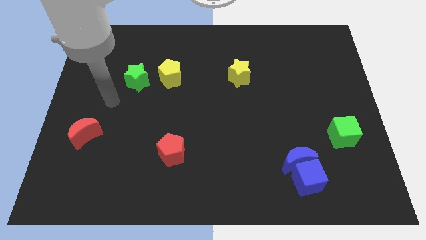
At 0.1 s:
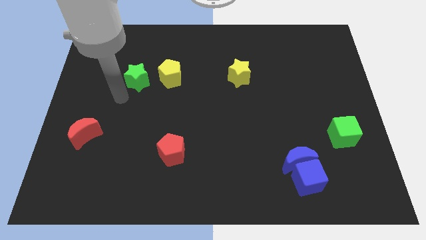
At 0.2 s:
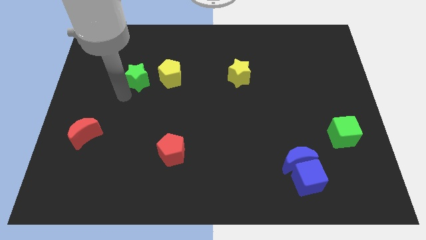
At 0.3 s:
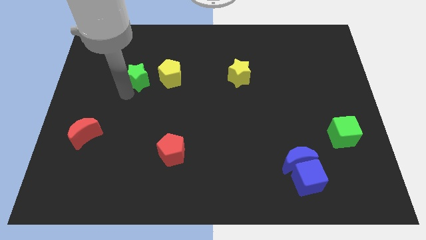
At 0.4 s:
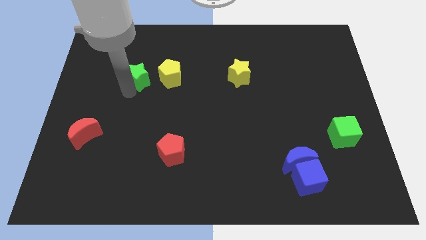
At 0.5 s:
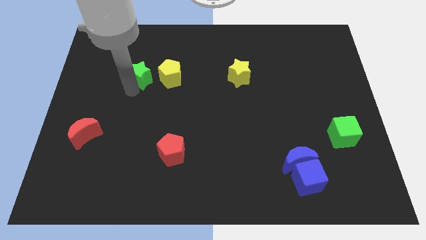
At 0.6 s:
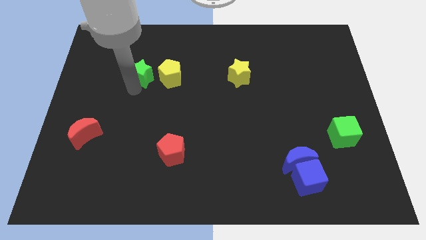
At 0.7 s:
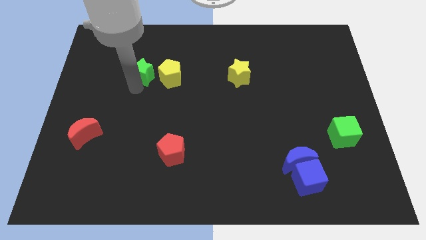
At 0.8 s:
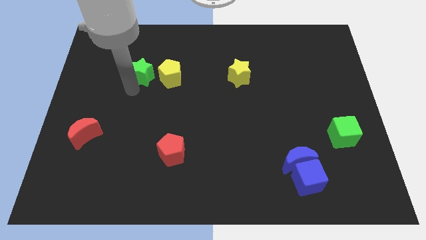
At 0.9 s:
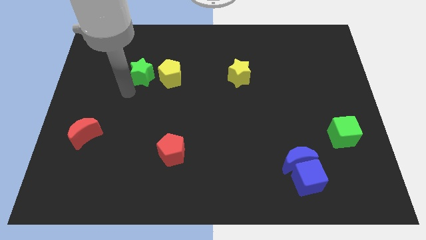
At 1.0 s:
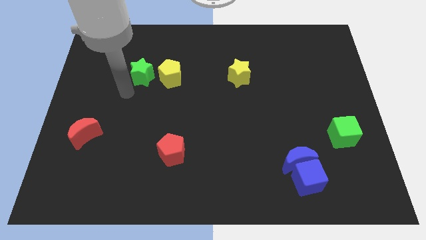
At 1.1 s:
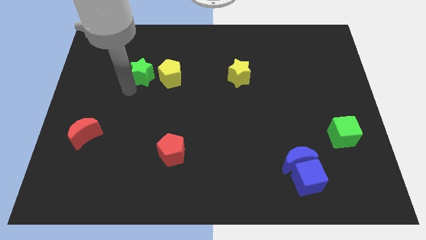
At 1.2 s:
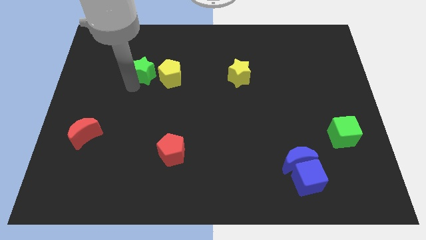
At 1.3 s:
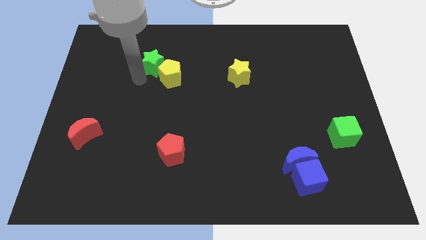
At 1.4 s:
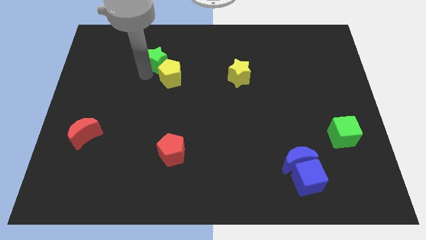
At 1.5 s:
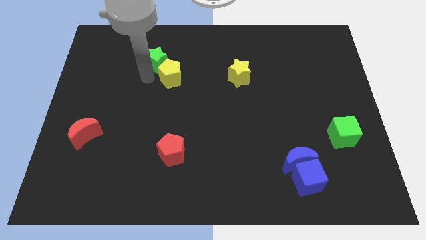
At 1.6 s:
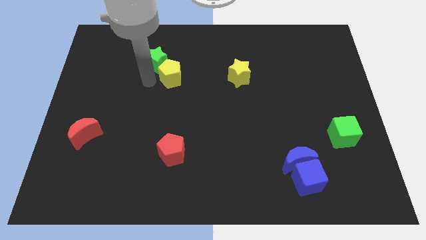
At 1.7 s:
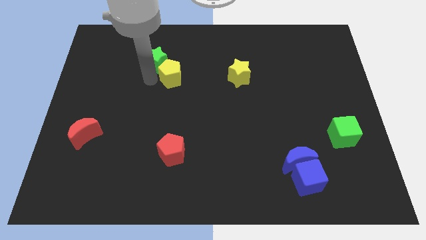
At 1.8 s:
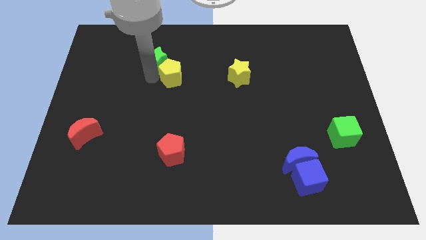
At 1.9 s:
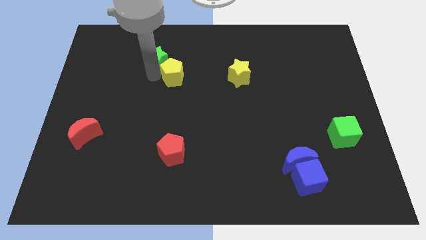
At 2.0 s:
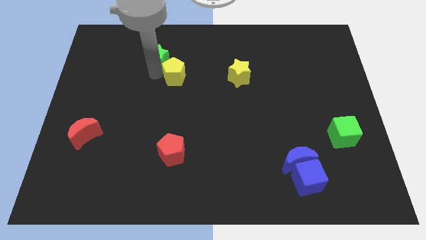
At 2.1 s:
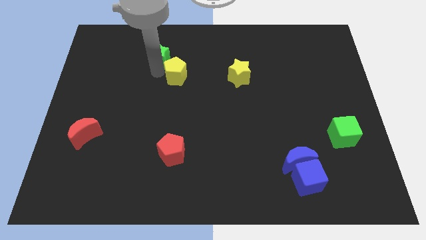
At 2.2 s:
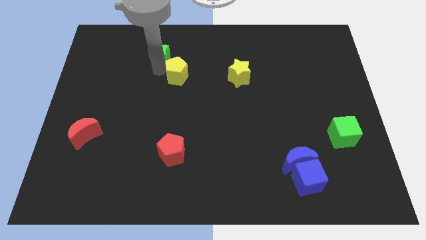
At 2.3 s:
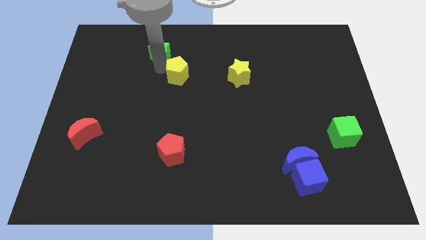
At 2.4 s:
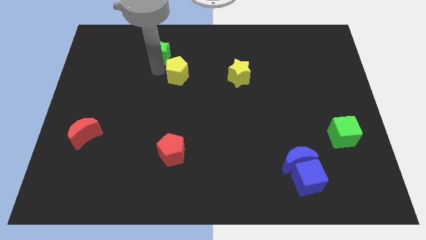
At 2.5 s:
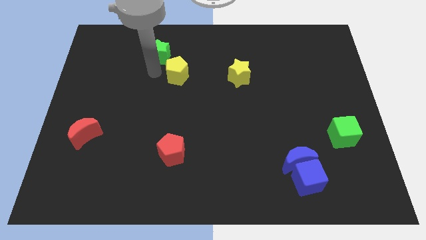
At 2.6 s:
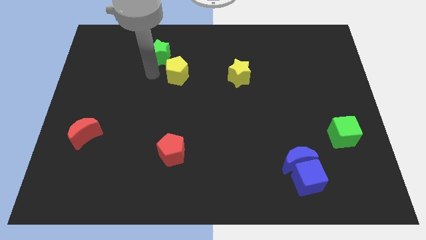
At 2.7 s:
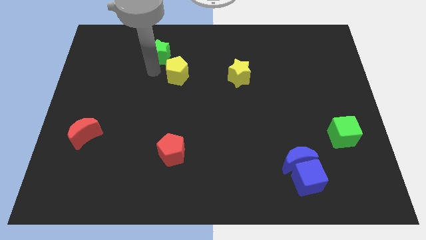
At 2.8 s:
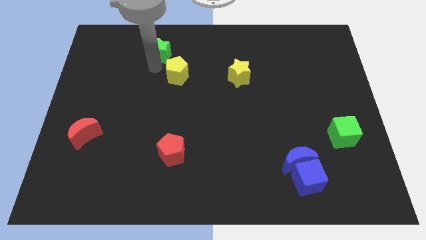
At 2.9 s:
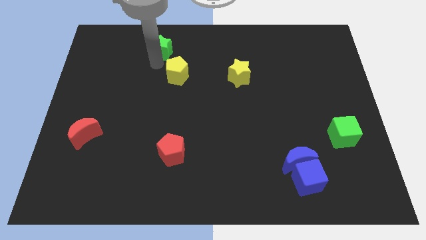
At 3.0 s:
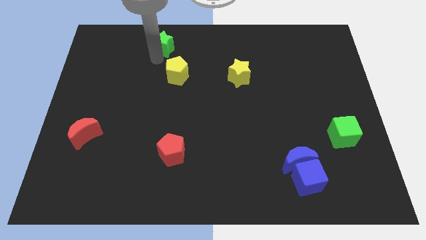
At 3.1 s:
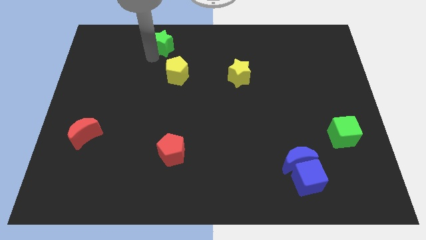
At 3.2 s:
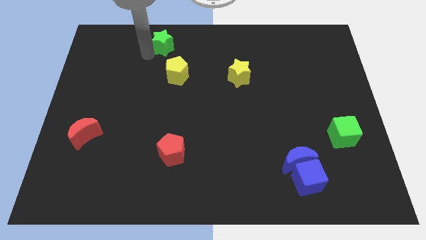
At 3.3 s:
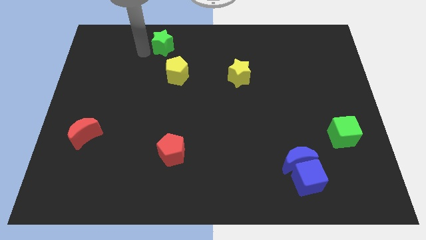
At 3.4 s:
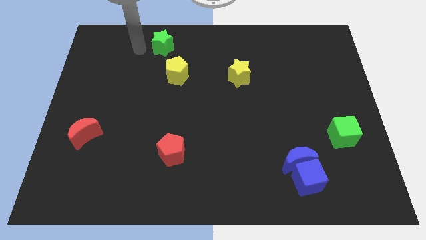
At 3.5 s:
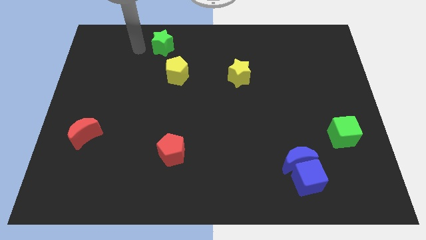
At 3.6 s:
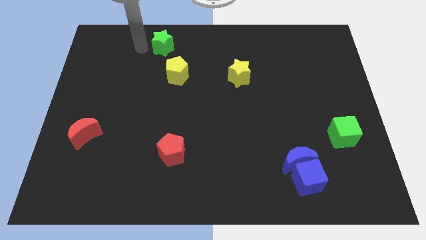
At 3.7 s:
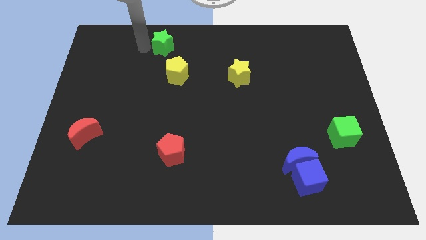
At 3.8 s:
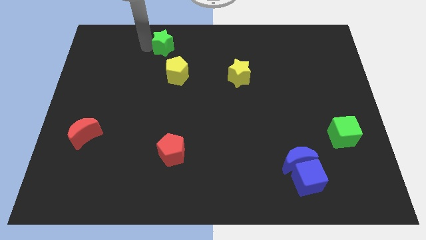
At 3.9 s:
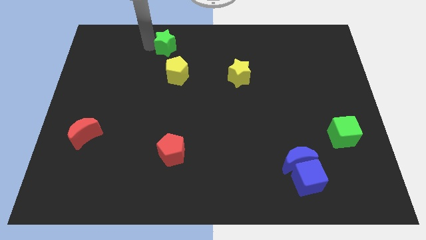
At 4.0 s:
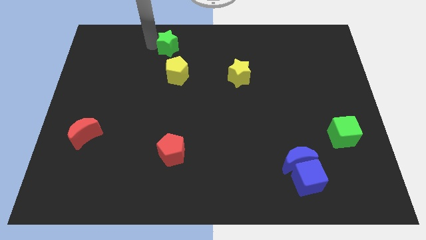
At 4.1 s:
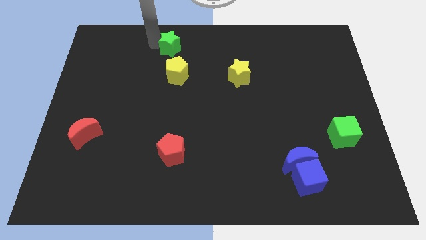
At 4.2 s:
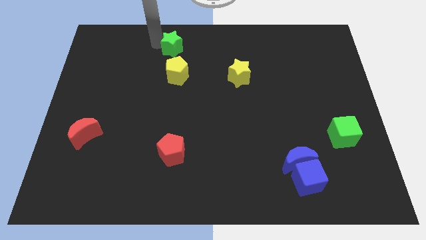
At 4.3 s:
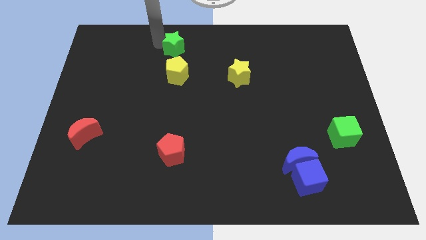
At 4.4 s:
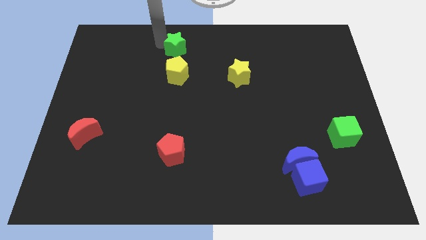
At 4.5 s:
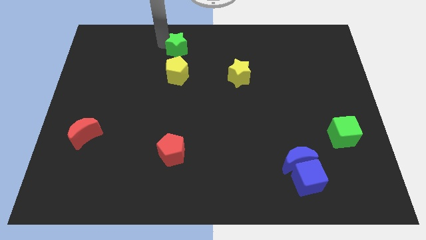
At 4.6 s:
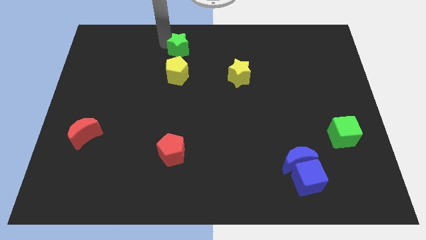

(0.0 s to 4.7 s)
push the green star to the top

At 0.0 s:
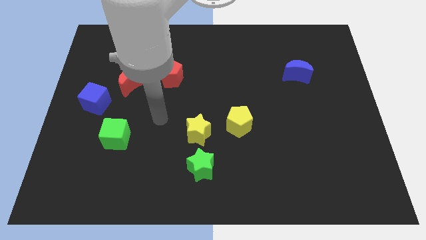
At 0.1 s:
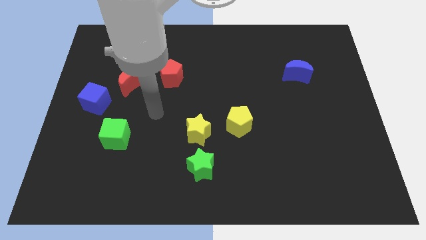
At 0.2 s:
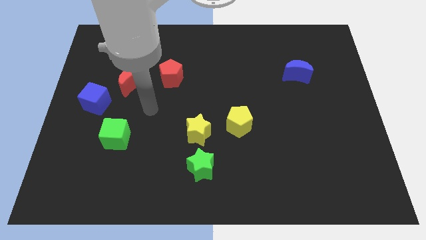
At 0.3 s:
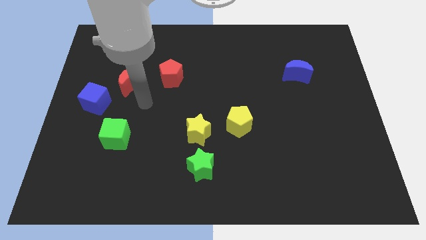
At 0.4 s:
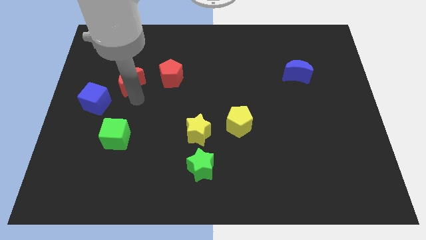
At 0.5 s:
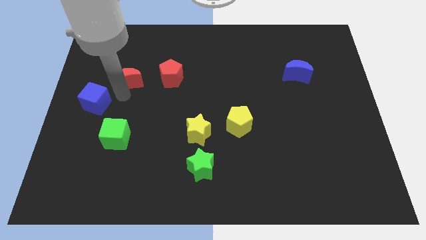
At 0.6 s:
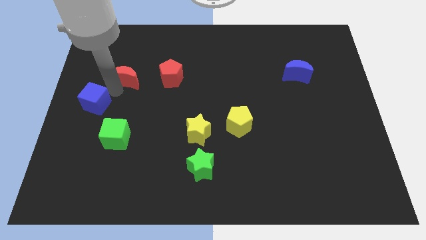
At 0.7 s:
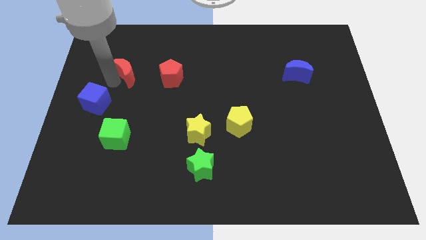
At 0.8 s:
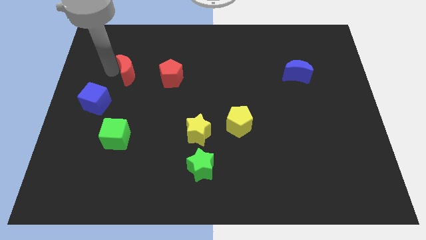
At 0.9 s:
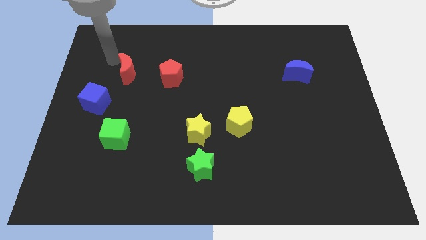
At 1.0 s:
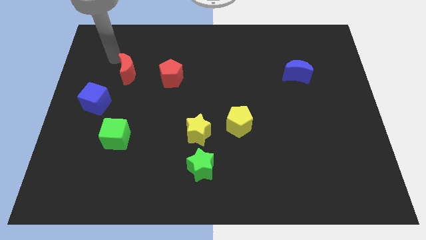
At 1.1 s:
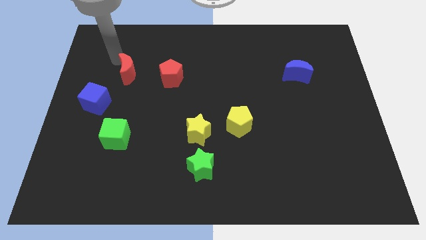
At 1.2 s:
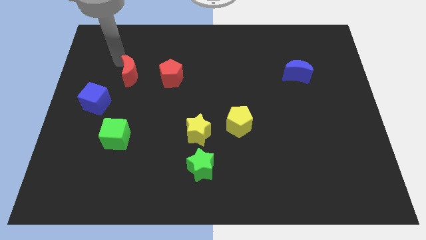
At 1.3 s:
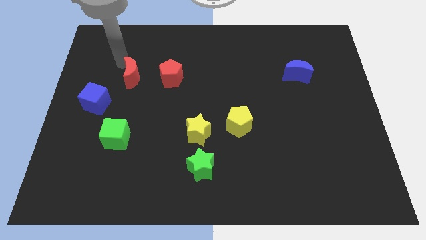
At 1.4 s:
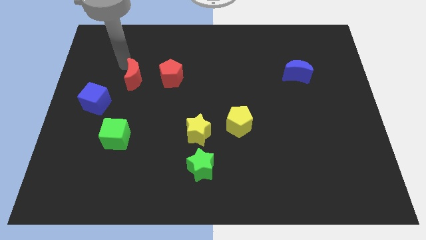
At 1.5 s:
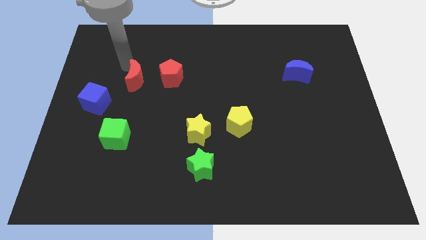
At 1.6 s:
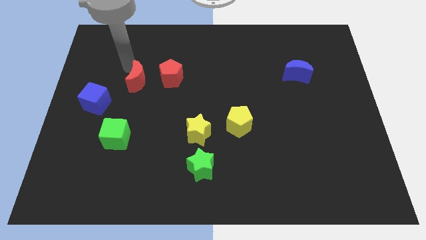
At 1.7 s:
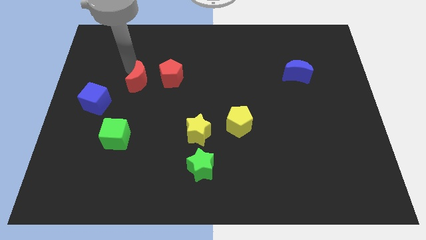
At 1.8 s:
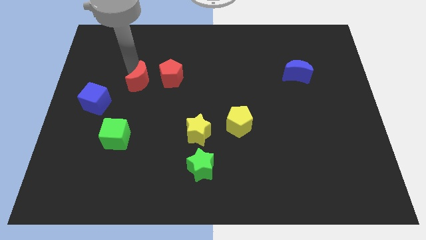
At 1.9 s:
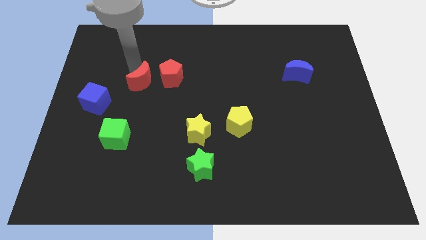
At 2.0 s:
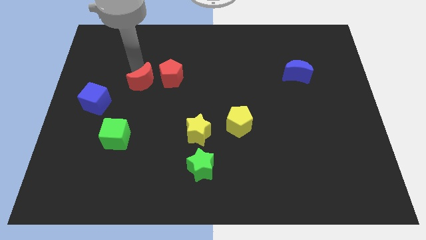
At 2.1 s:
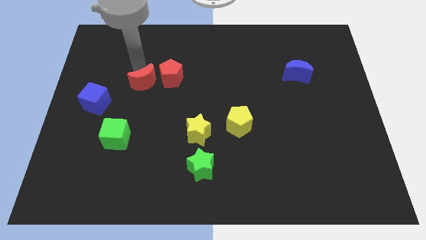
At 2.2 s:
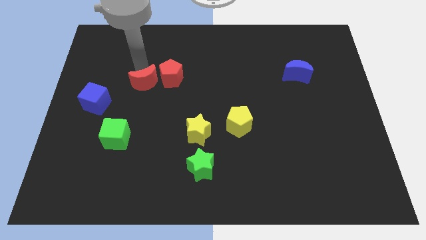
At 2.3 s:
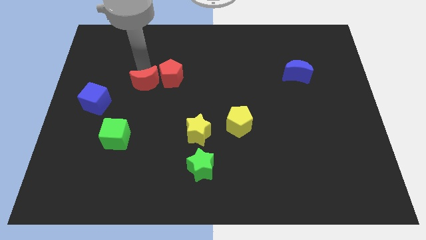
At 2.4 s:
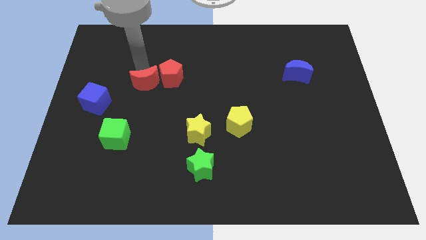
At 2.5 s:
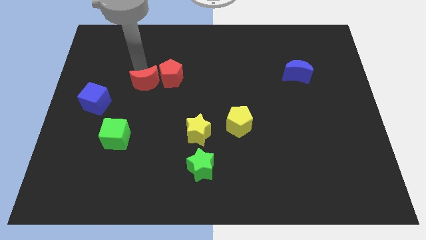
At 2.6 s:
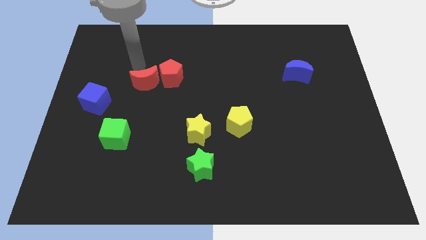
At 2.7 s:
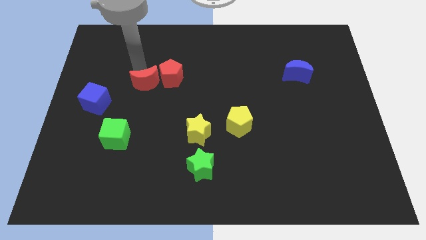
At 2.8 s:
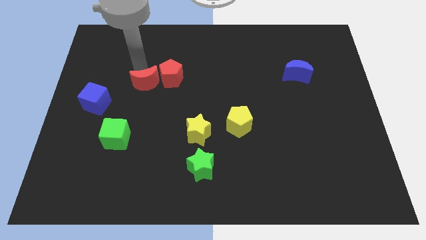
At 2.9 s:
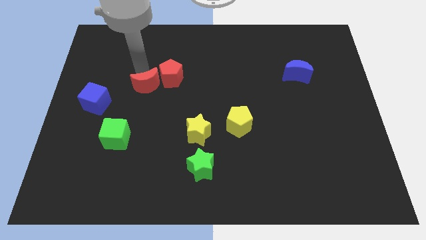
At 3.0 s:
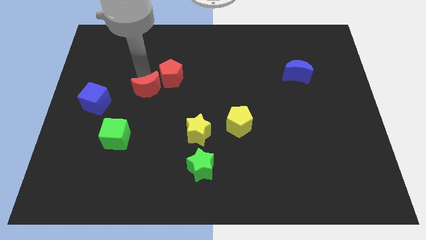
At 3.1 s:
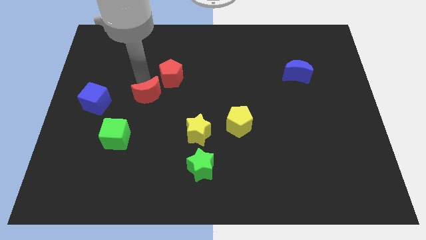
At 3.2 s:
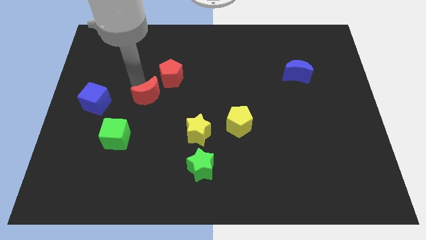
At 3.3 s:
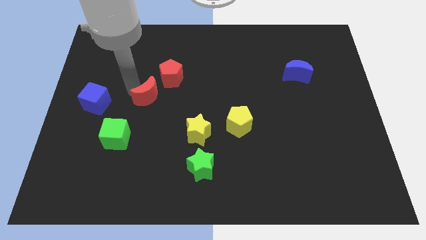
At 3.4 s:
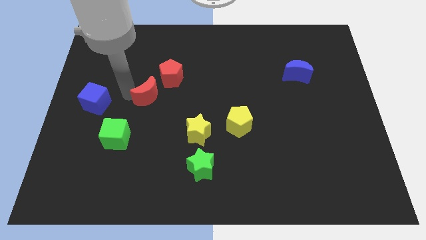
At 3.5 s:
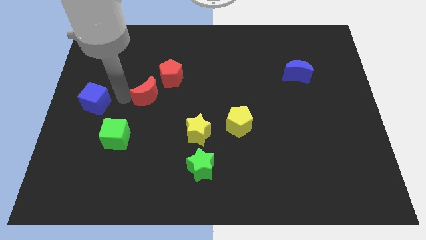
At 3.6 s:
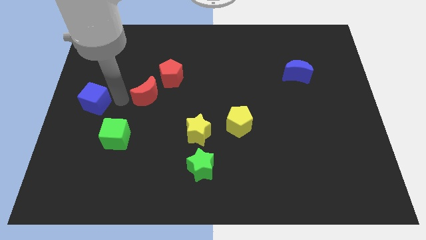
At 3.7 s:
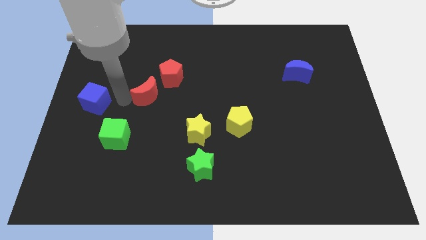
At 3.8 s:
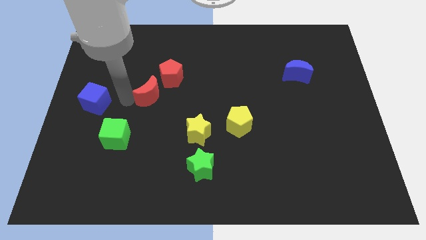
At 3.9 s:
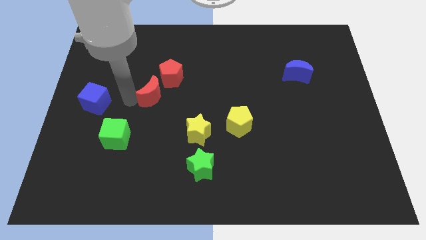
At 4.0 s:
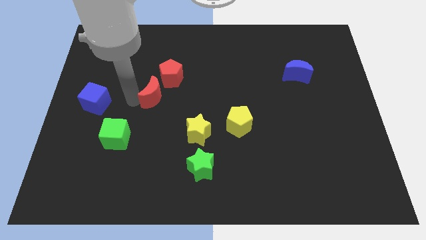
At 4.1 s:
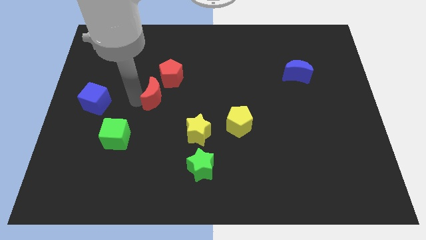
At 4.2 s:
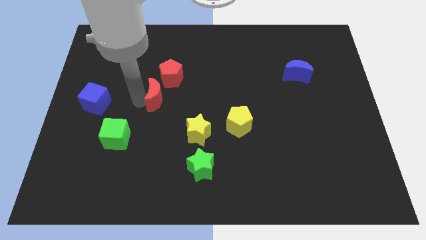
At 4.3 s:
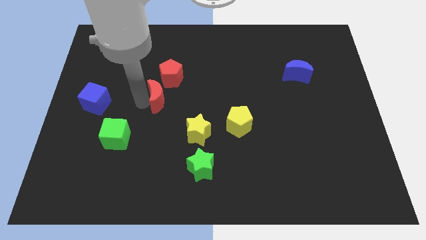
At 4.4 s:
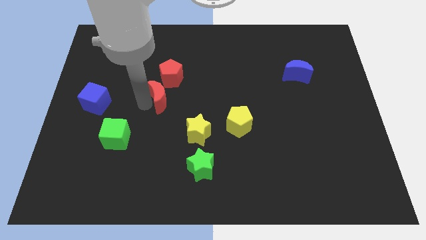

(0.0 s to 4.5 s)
push the red moon to the center of the board
